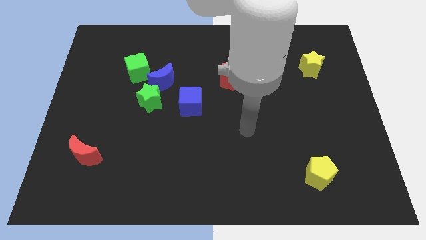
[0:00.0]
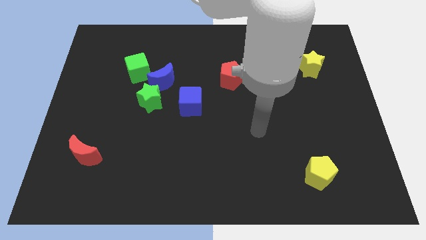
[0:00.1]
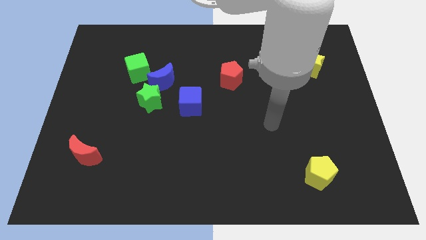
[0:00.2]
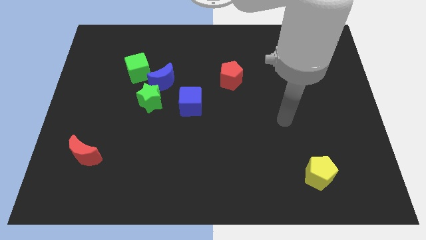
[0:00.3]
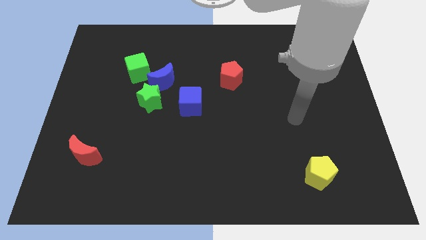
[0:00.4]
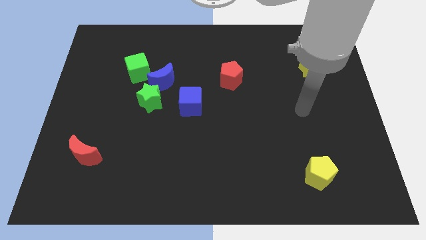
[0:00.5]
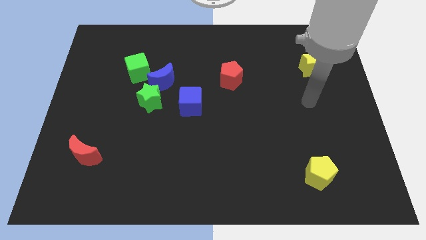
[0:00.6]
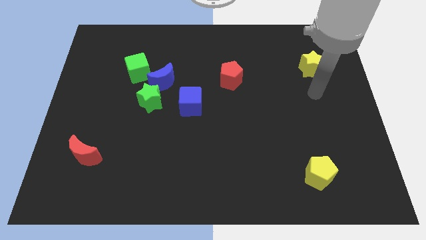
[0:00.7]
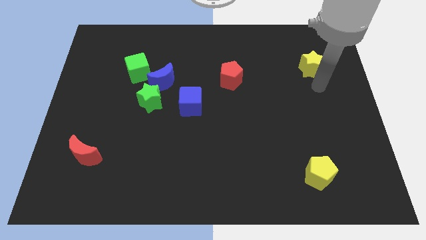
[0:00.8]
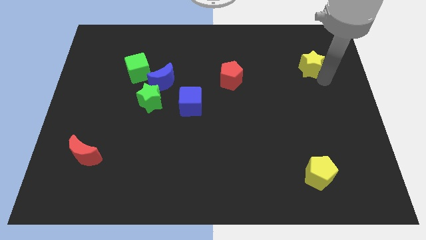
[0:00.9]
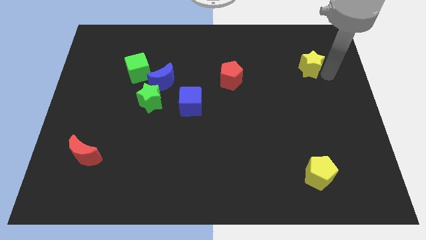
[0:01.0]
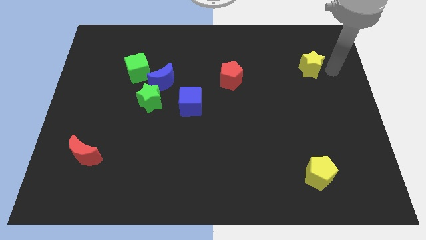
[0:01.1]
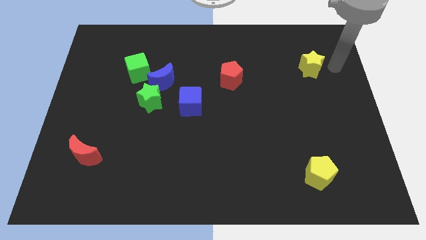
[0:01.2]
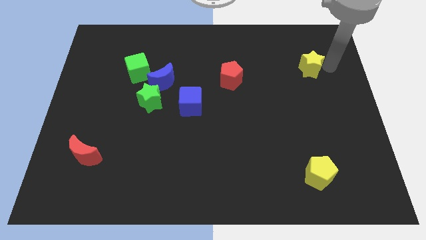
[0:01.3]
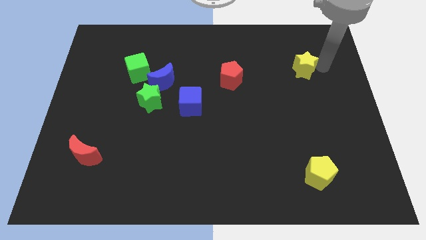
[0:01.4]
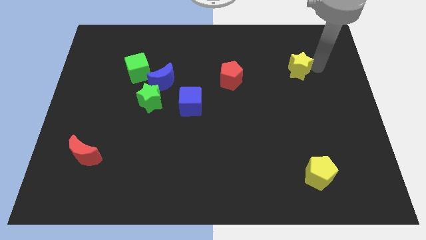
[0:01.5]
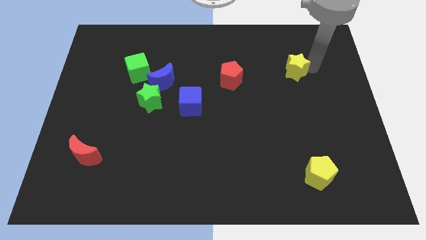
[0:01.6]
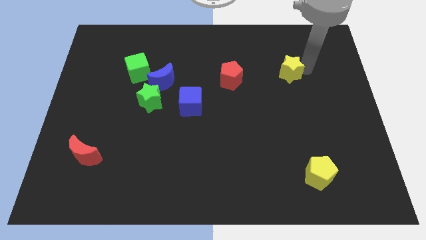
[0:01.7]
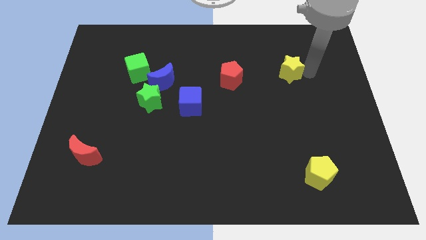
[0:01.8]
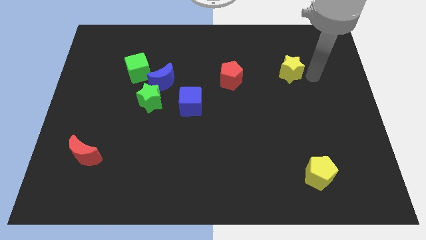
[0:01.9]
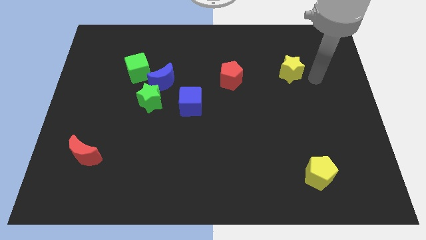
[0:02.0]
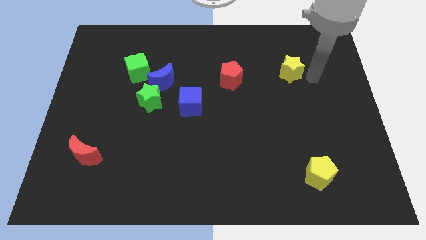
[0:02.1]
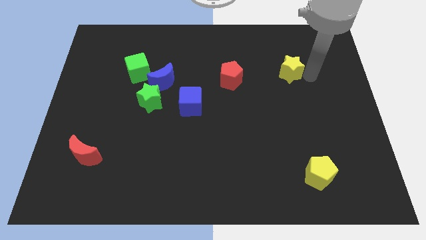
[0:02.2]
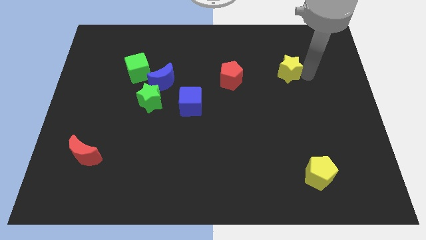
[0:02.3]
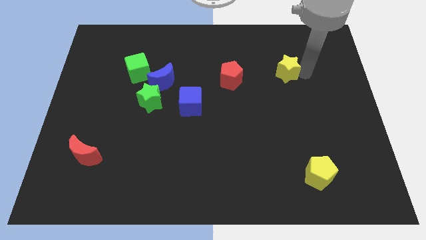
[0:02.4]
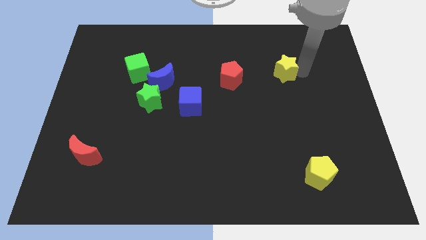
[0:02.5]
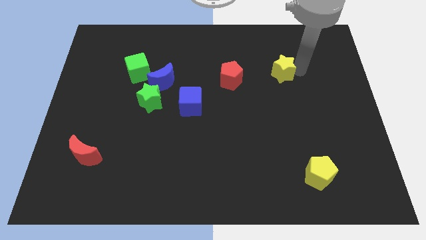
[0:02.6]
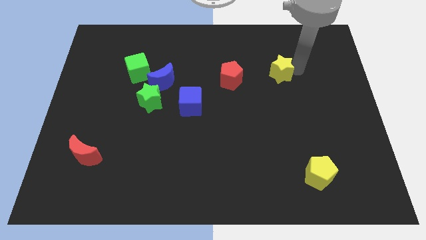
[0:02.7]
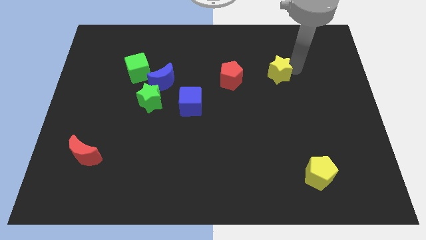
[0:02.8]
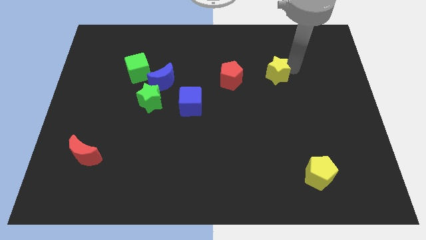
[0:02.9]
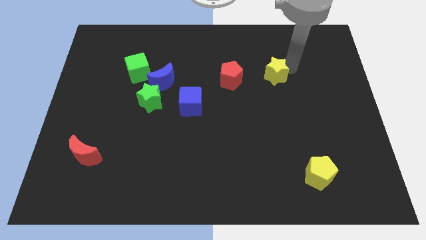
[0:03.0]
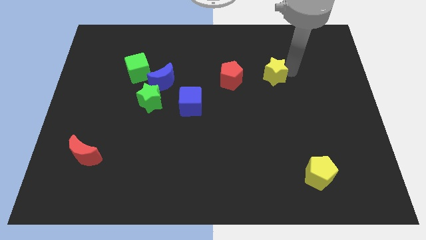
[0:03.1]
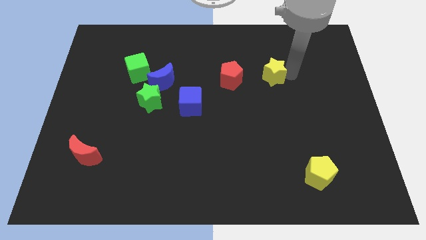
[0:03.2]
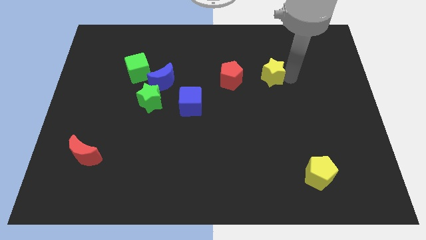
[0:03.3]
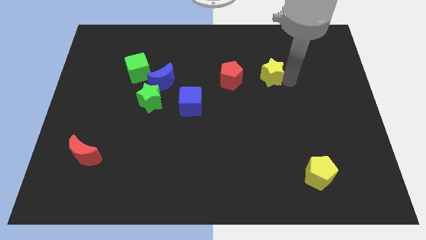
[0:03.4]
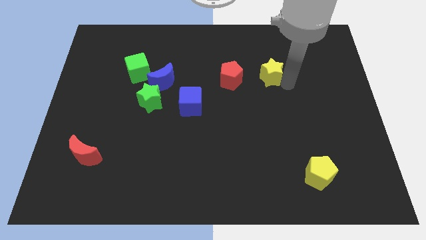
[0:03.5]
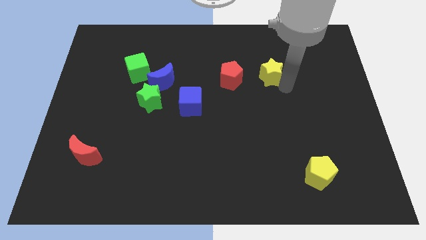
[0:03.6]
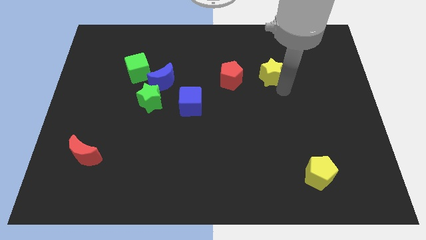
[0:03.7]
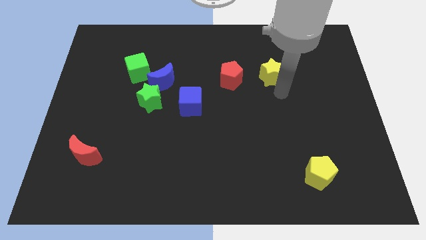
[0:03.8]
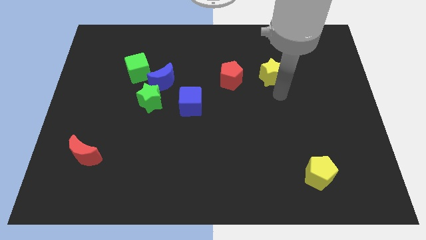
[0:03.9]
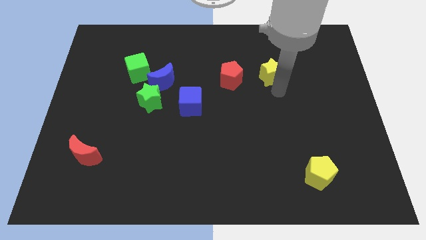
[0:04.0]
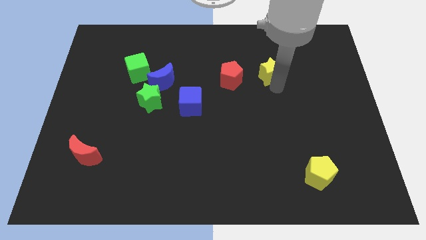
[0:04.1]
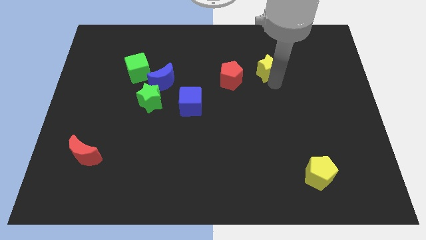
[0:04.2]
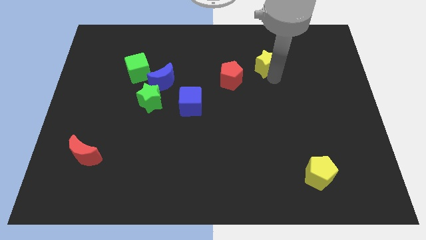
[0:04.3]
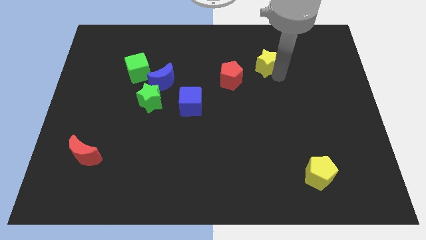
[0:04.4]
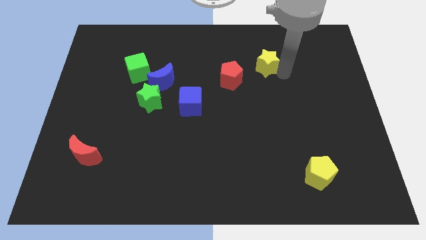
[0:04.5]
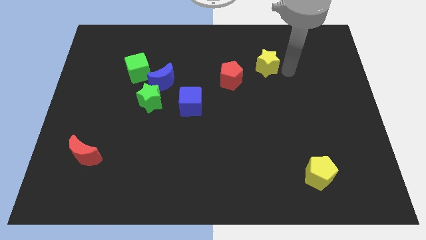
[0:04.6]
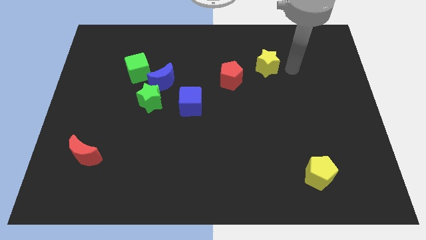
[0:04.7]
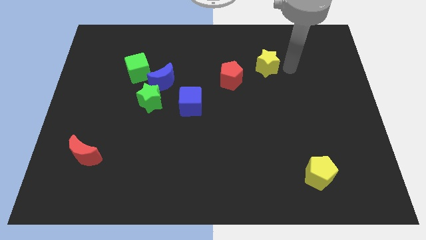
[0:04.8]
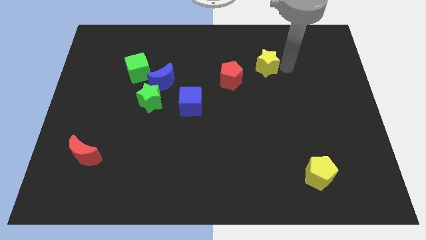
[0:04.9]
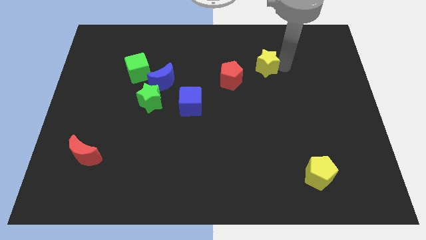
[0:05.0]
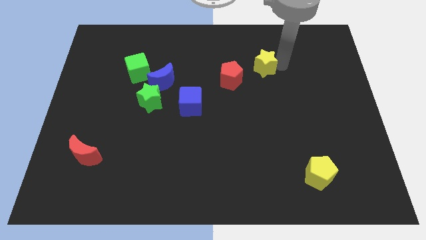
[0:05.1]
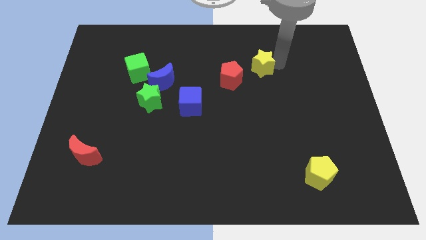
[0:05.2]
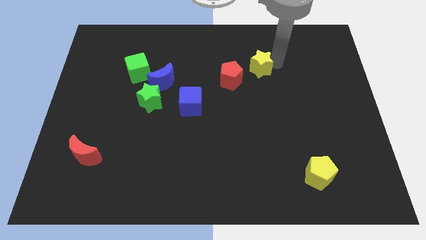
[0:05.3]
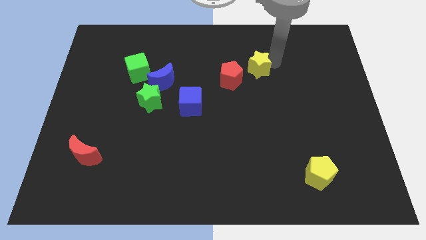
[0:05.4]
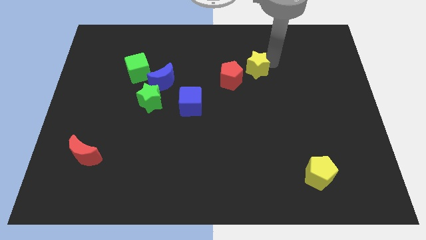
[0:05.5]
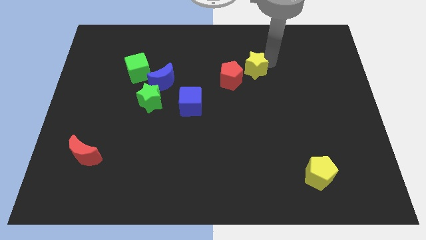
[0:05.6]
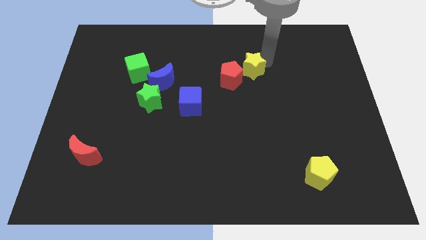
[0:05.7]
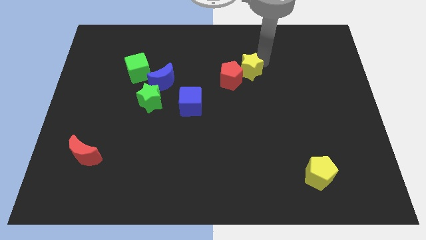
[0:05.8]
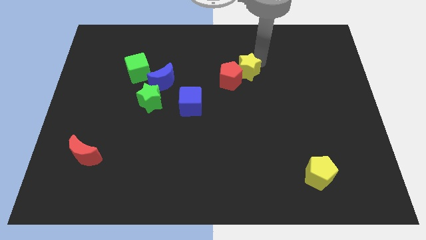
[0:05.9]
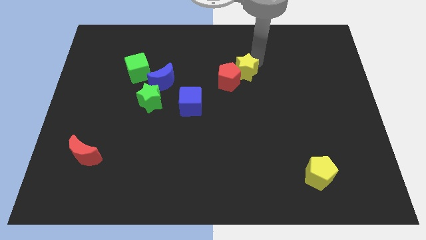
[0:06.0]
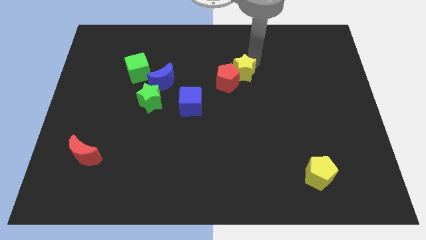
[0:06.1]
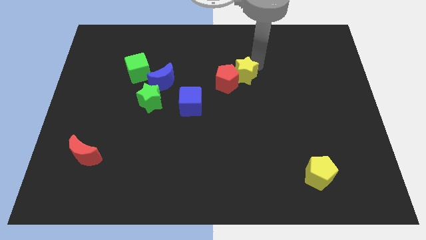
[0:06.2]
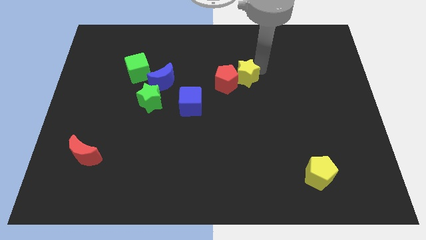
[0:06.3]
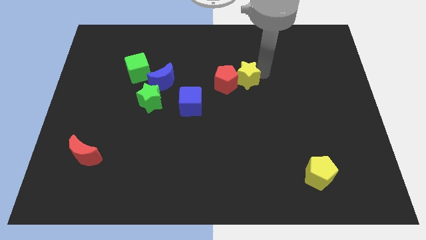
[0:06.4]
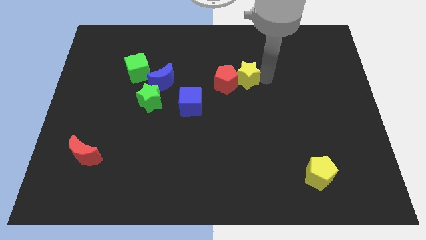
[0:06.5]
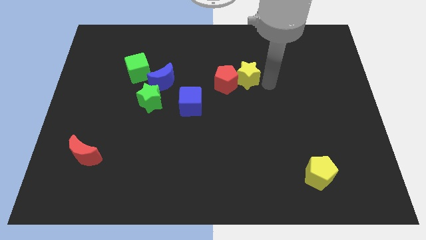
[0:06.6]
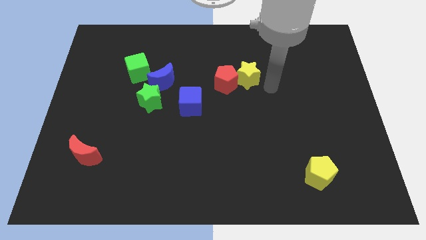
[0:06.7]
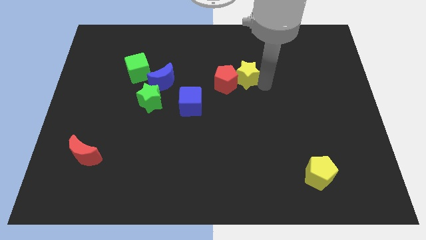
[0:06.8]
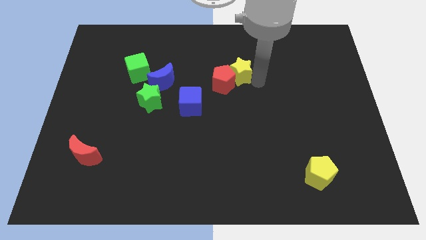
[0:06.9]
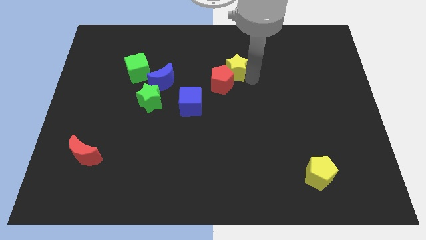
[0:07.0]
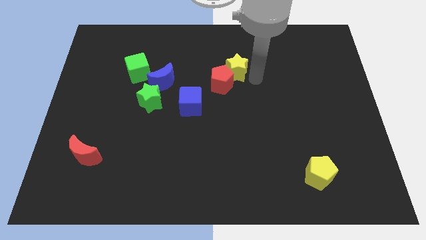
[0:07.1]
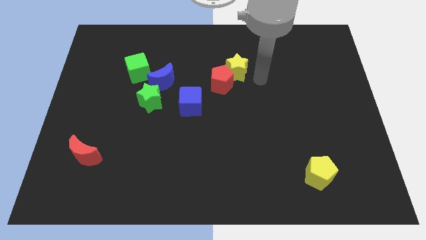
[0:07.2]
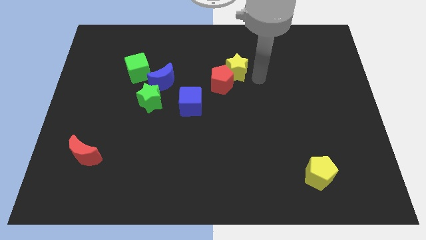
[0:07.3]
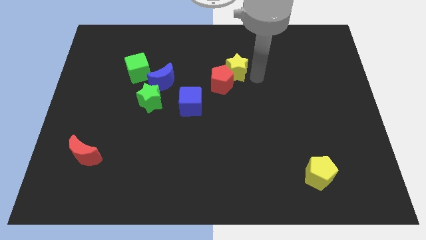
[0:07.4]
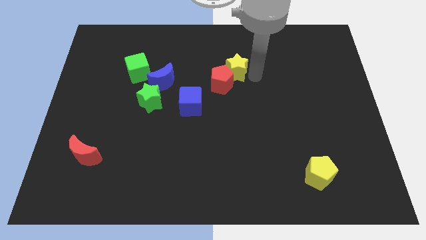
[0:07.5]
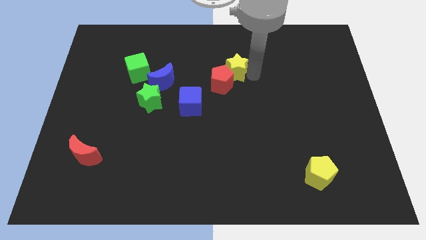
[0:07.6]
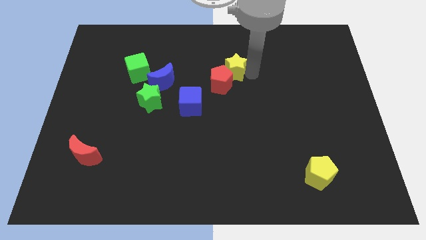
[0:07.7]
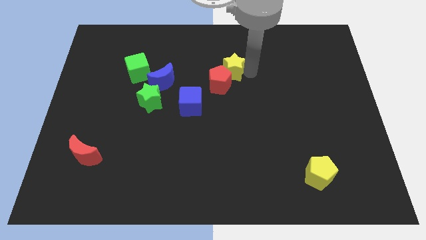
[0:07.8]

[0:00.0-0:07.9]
slide the yellow star left

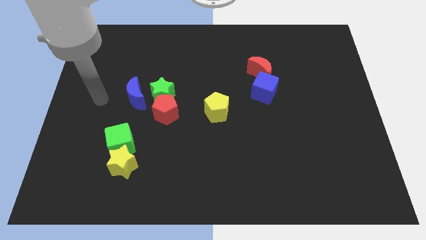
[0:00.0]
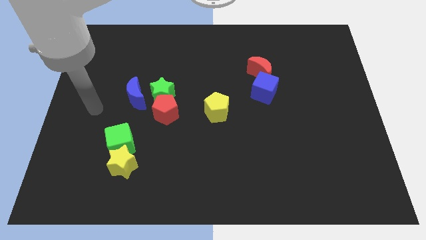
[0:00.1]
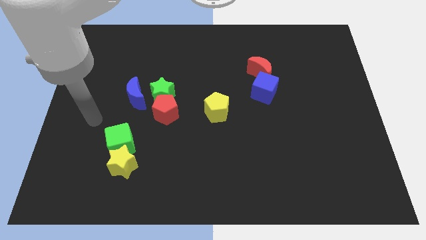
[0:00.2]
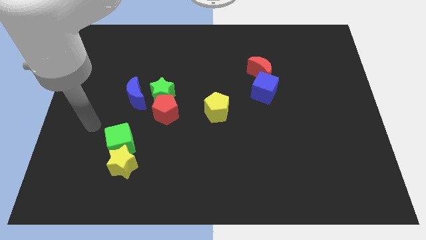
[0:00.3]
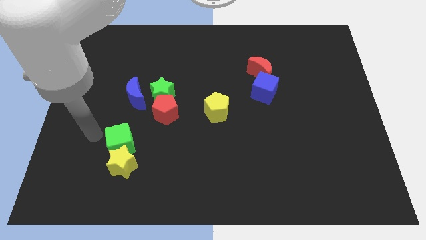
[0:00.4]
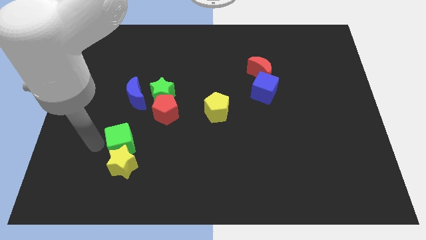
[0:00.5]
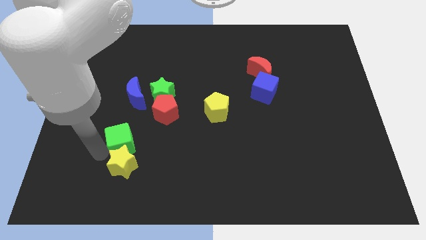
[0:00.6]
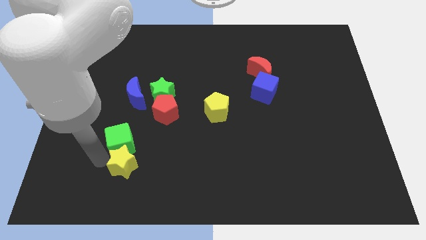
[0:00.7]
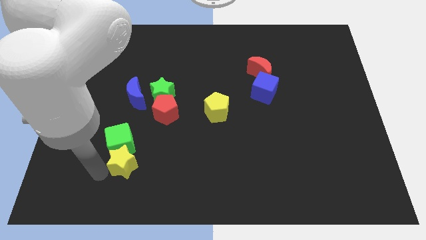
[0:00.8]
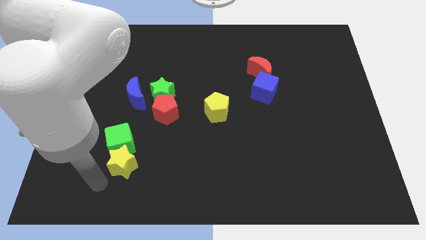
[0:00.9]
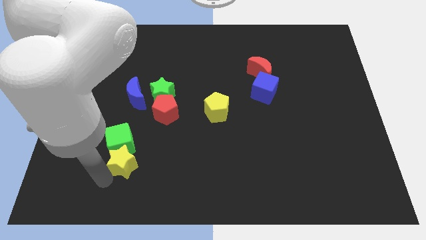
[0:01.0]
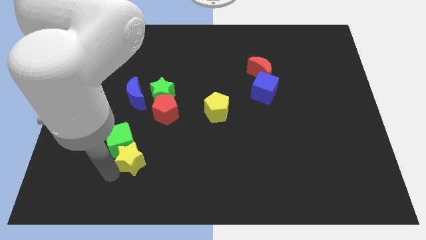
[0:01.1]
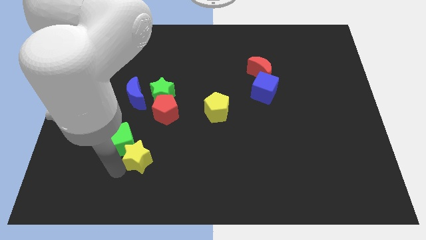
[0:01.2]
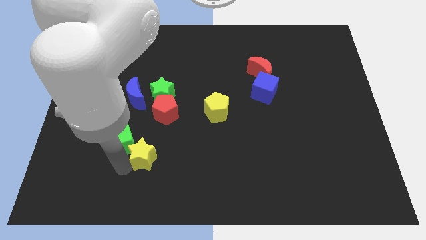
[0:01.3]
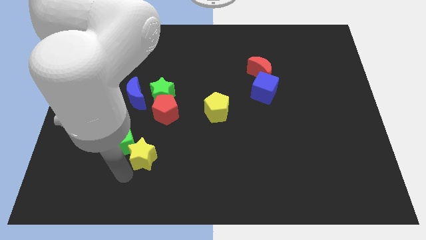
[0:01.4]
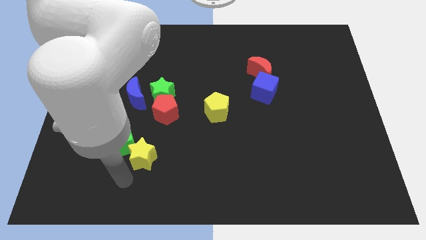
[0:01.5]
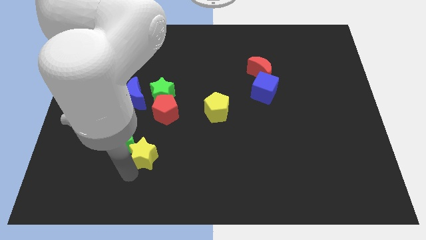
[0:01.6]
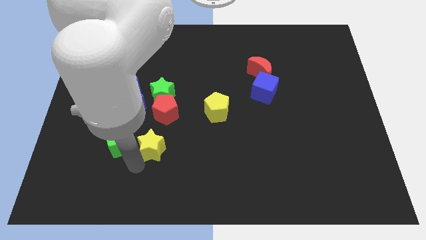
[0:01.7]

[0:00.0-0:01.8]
move the yellow star slightly upwards and to the right
